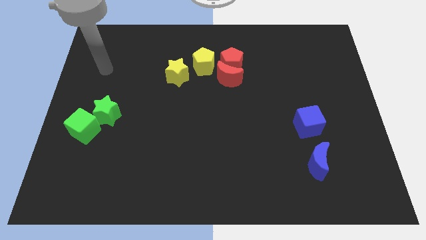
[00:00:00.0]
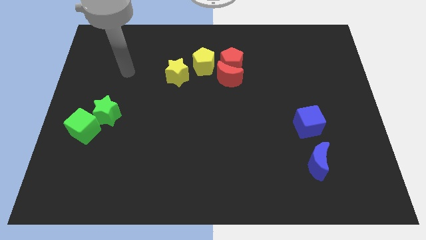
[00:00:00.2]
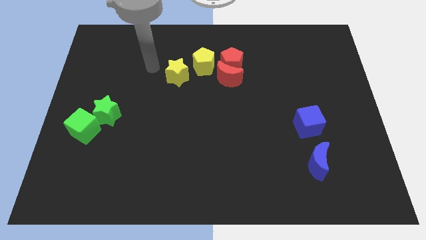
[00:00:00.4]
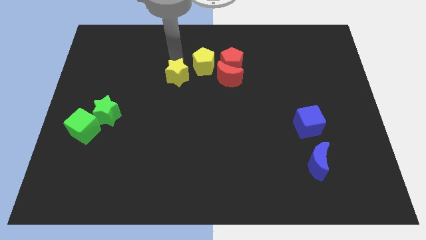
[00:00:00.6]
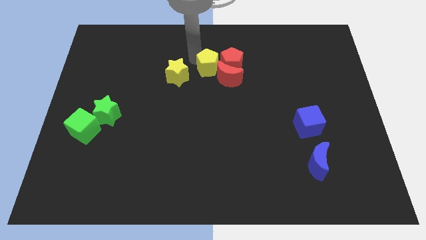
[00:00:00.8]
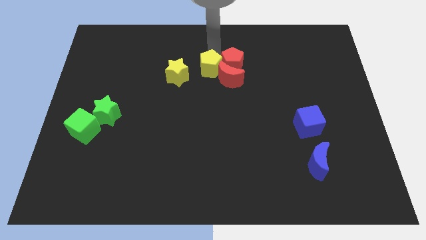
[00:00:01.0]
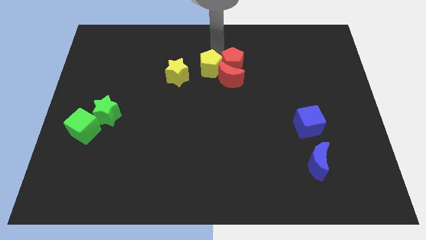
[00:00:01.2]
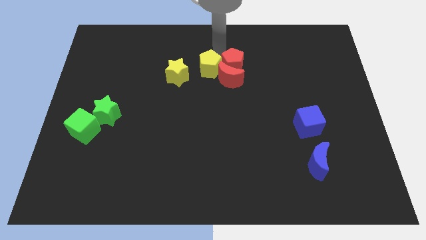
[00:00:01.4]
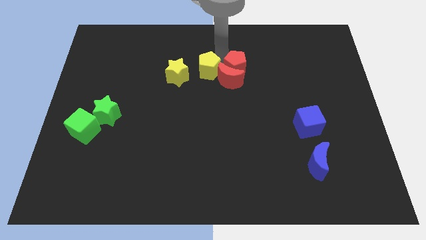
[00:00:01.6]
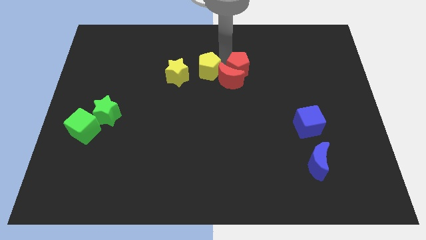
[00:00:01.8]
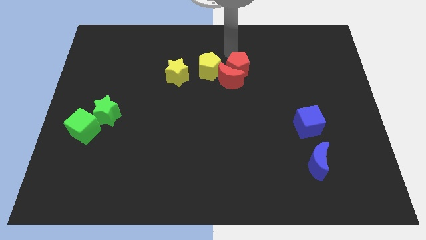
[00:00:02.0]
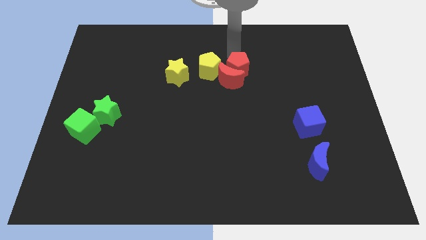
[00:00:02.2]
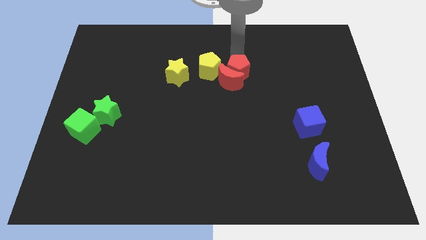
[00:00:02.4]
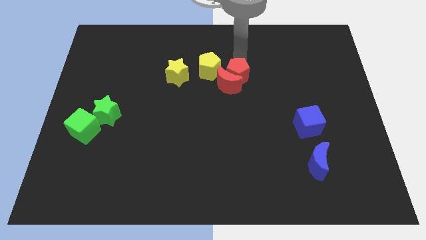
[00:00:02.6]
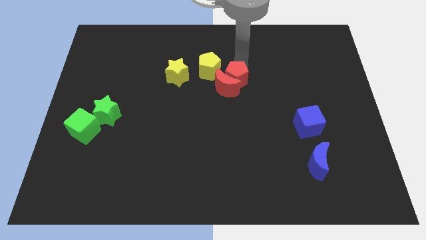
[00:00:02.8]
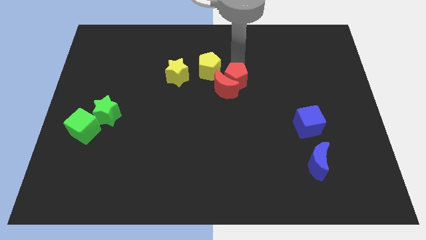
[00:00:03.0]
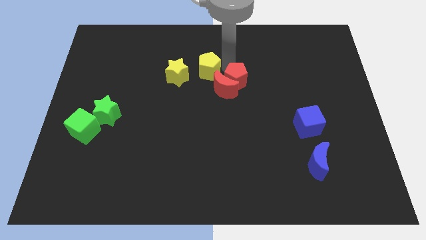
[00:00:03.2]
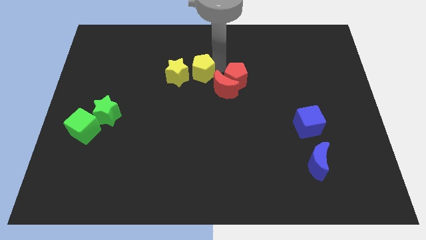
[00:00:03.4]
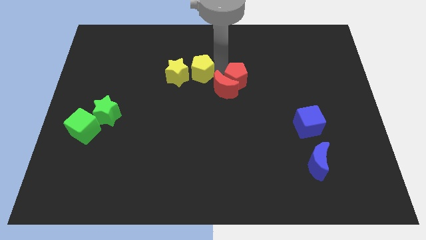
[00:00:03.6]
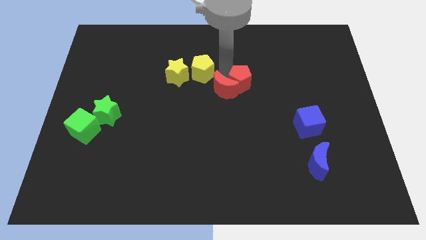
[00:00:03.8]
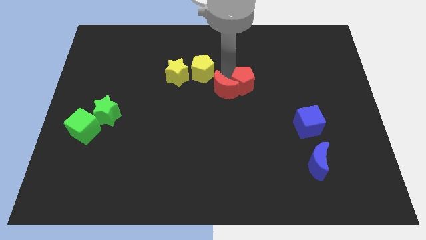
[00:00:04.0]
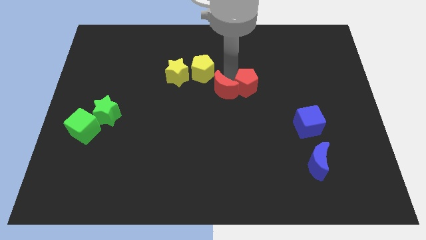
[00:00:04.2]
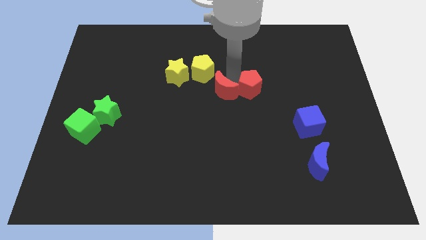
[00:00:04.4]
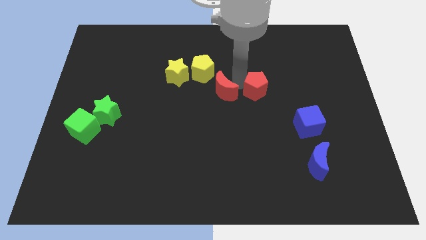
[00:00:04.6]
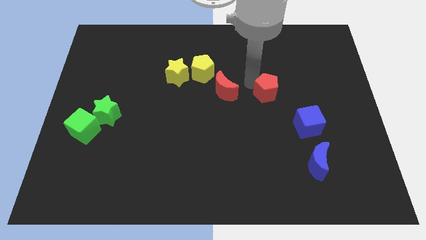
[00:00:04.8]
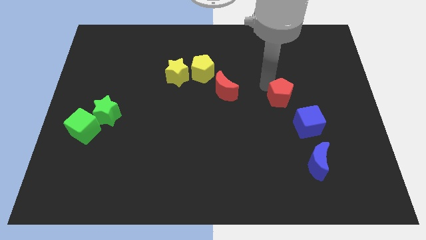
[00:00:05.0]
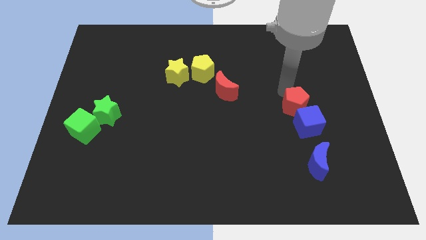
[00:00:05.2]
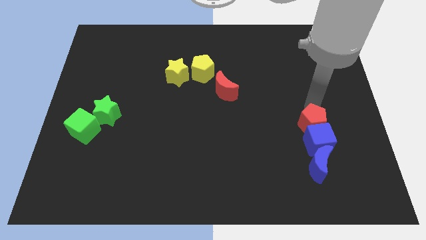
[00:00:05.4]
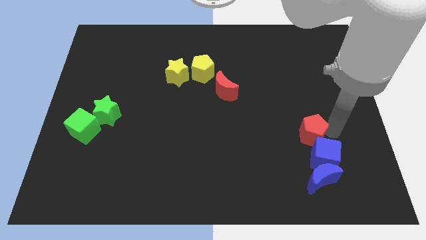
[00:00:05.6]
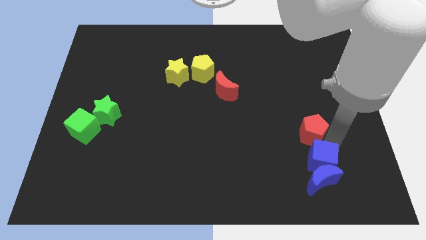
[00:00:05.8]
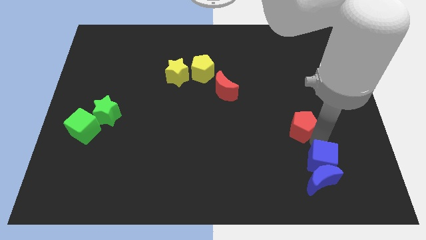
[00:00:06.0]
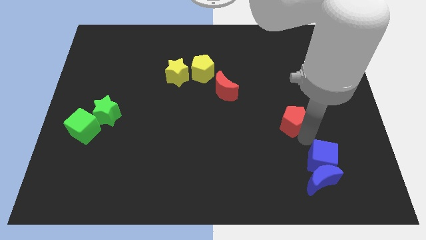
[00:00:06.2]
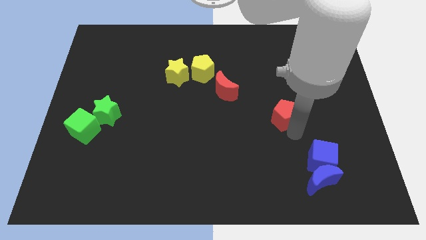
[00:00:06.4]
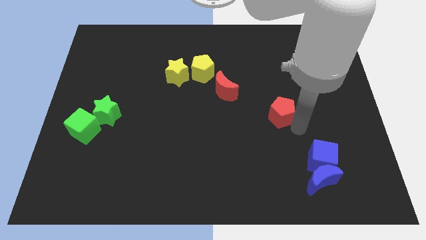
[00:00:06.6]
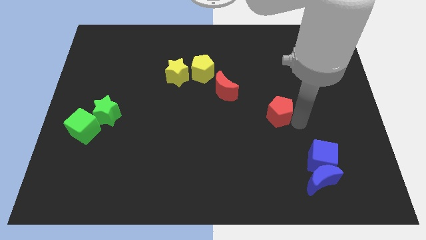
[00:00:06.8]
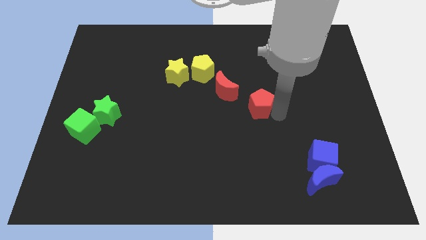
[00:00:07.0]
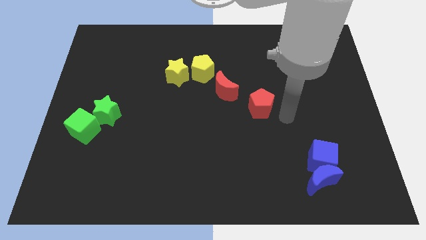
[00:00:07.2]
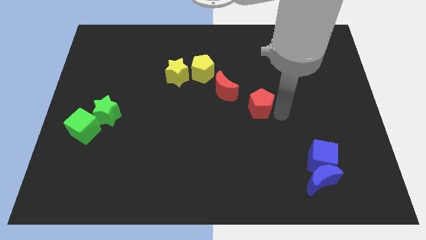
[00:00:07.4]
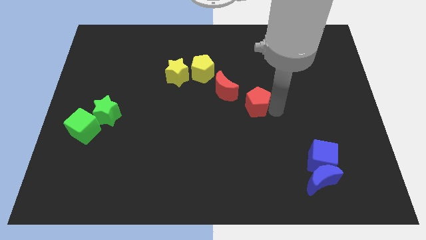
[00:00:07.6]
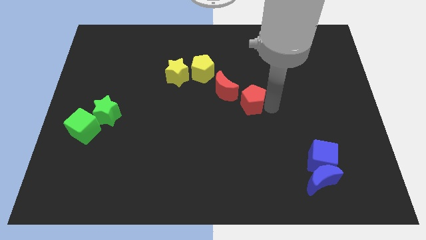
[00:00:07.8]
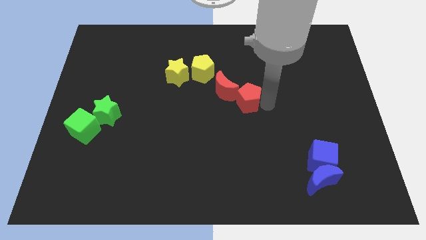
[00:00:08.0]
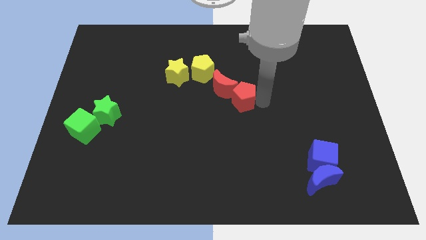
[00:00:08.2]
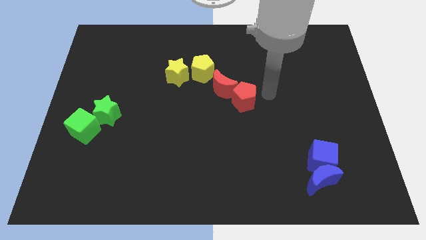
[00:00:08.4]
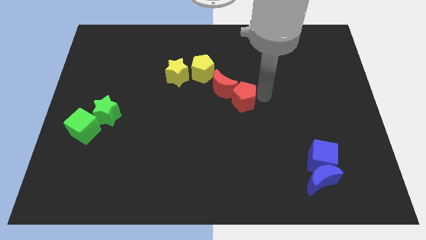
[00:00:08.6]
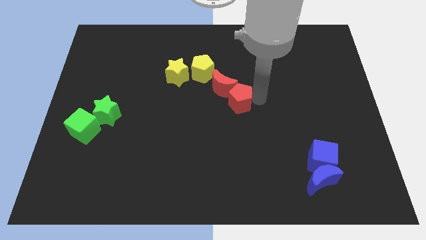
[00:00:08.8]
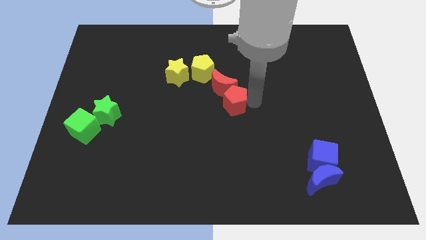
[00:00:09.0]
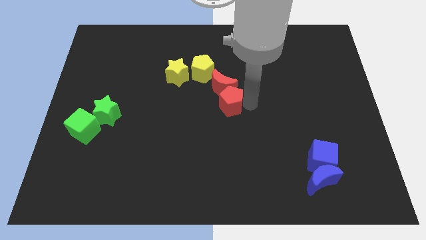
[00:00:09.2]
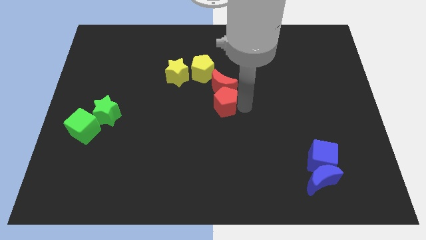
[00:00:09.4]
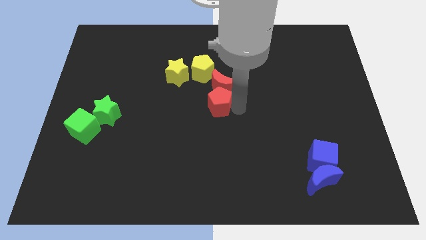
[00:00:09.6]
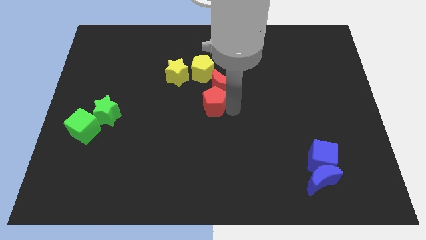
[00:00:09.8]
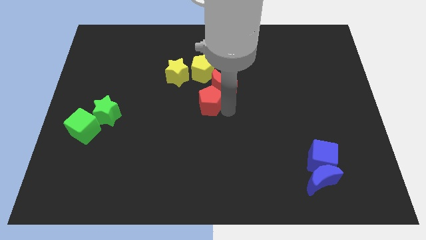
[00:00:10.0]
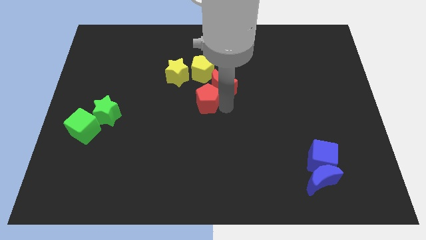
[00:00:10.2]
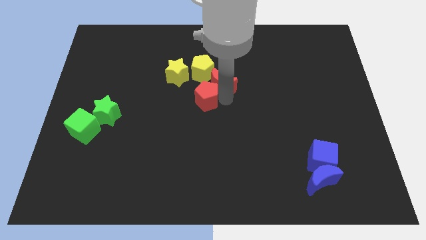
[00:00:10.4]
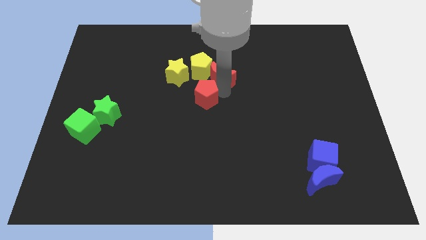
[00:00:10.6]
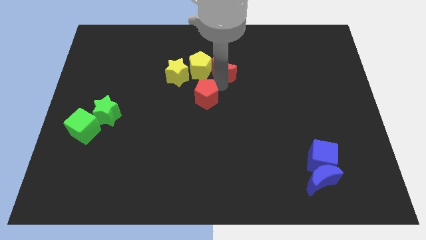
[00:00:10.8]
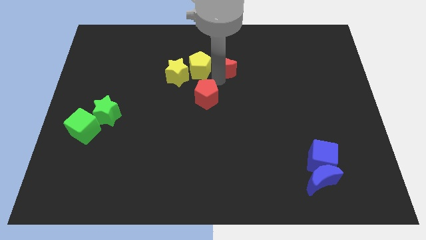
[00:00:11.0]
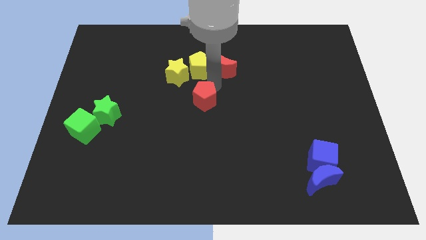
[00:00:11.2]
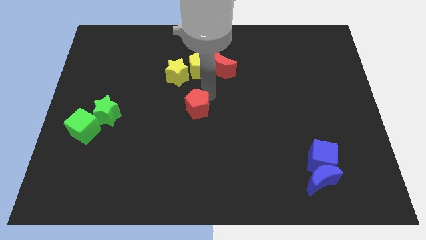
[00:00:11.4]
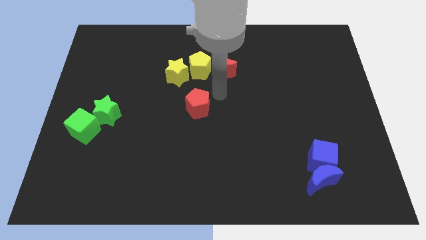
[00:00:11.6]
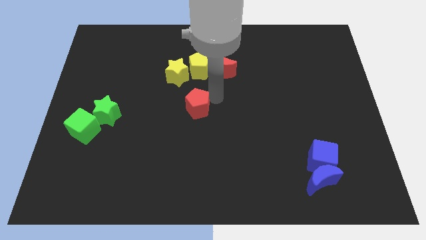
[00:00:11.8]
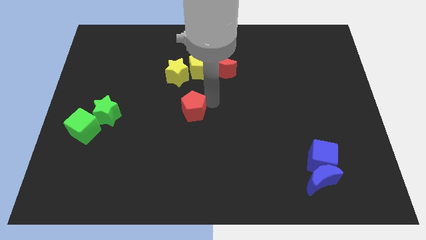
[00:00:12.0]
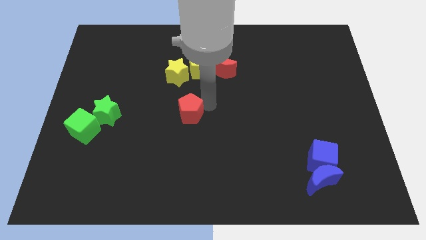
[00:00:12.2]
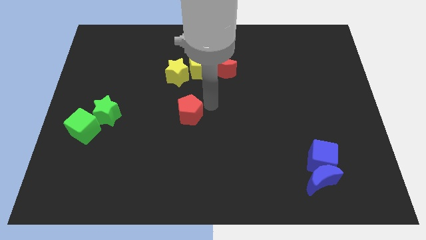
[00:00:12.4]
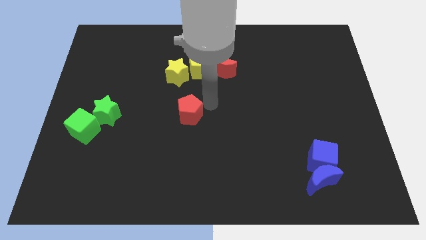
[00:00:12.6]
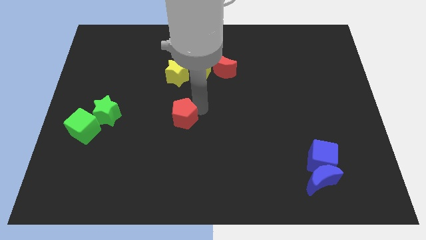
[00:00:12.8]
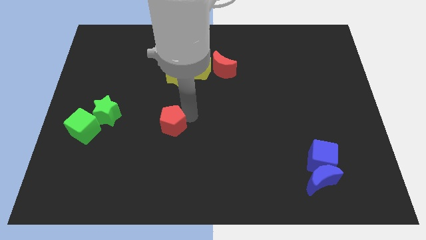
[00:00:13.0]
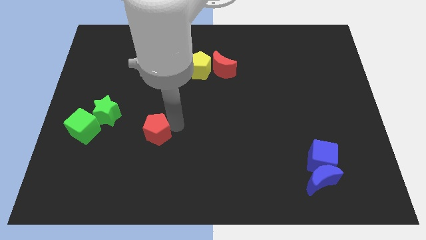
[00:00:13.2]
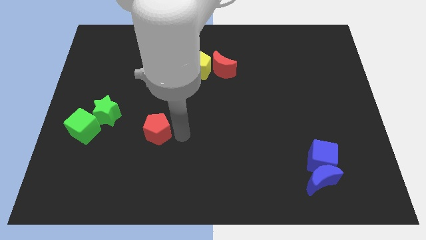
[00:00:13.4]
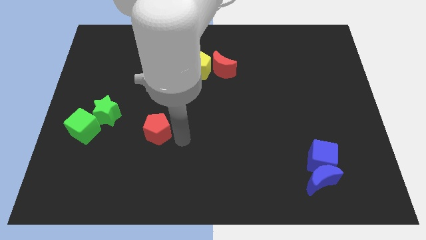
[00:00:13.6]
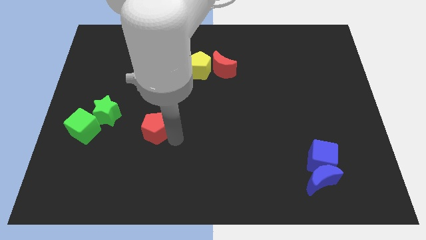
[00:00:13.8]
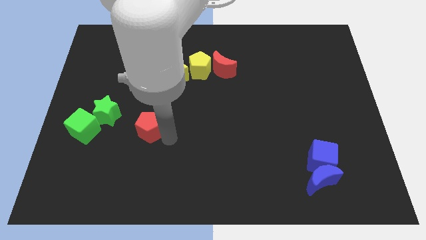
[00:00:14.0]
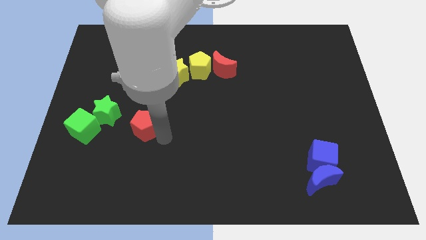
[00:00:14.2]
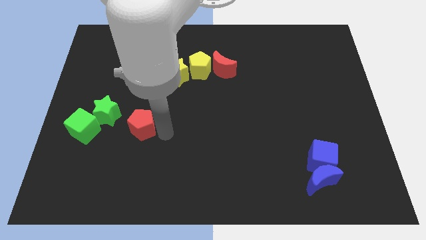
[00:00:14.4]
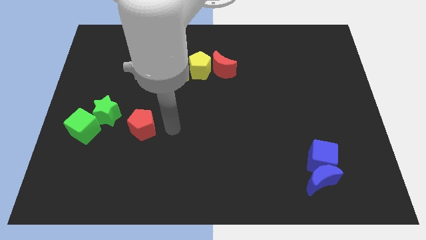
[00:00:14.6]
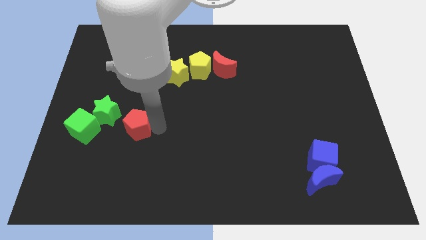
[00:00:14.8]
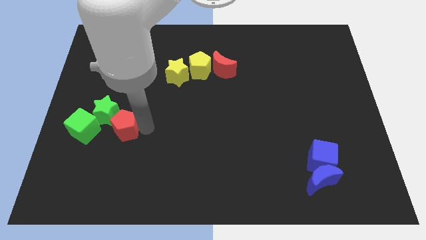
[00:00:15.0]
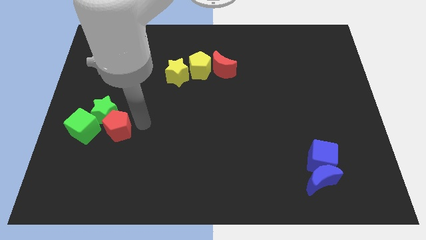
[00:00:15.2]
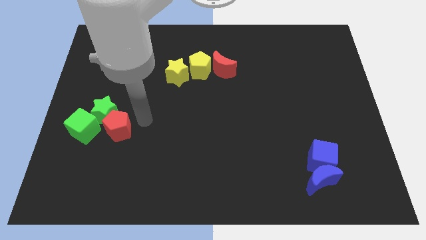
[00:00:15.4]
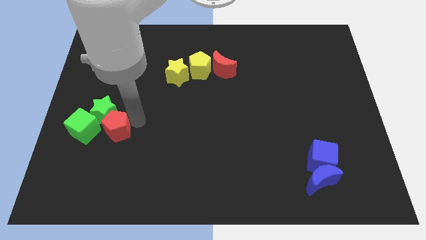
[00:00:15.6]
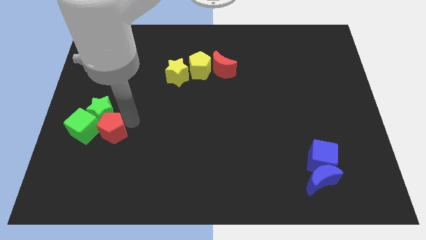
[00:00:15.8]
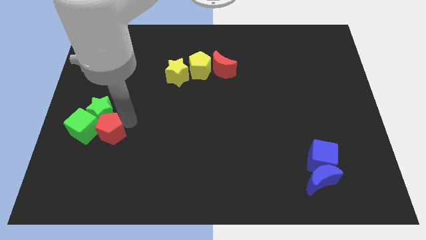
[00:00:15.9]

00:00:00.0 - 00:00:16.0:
put the red pentagon close to the green cube
